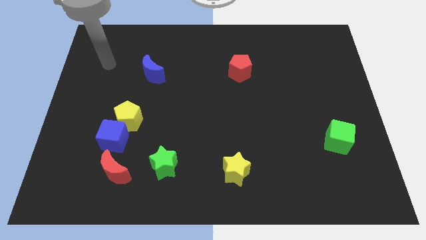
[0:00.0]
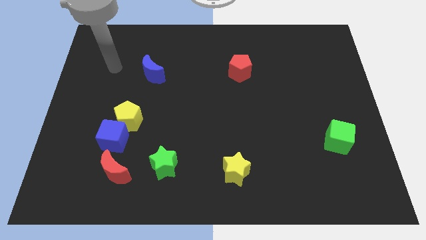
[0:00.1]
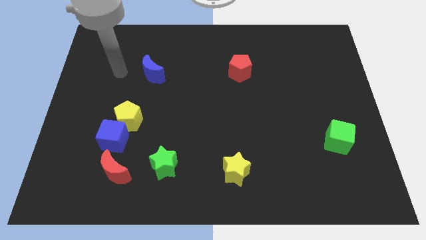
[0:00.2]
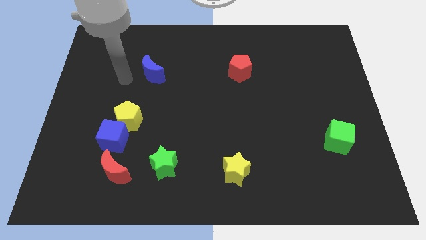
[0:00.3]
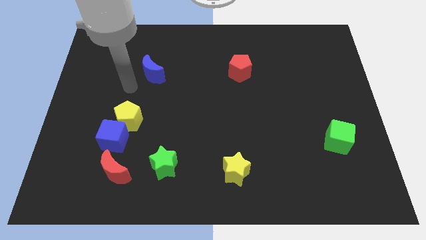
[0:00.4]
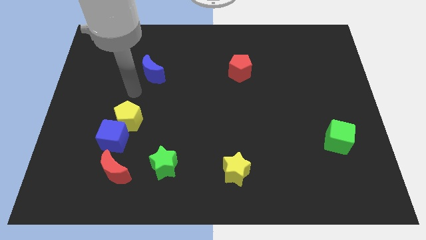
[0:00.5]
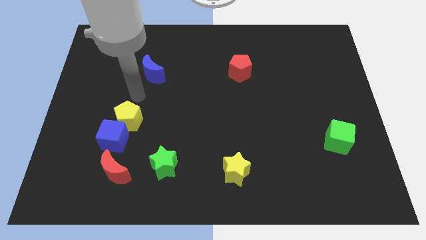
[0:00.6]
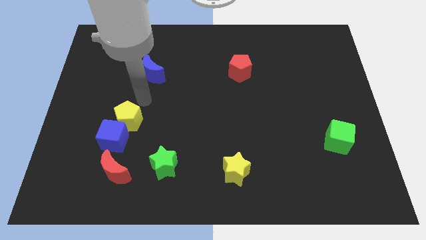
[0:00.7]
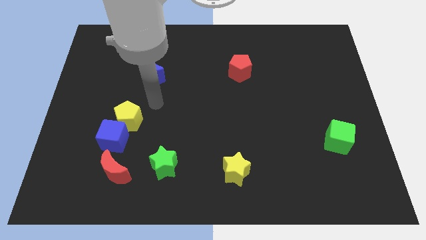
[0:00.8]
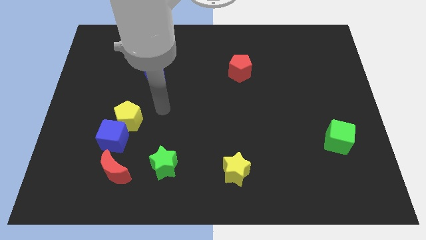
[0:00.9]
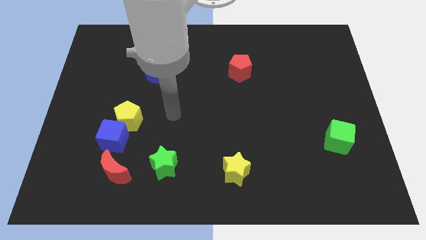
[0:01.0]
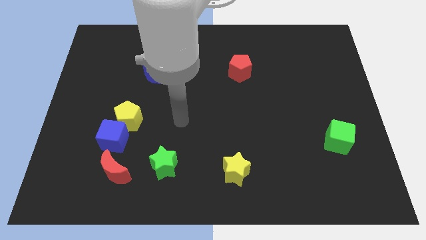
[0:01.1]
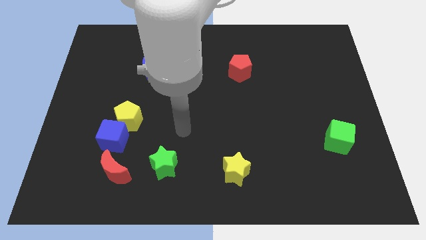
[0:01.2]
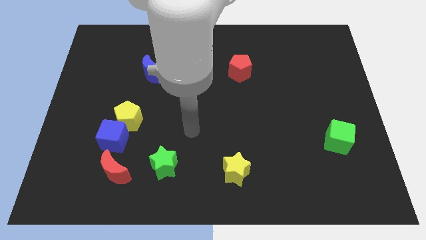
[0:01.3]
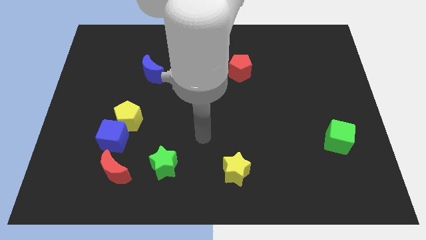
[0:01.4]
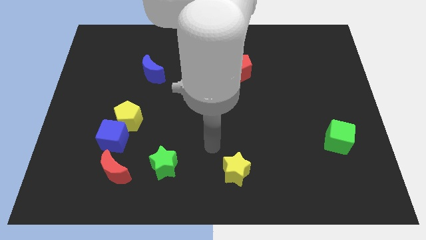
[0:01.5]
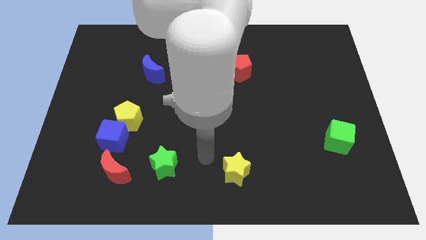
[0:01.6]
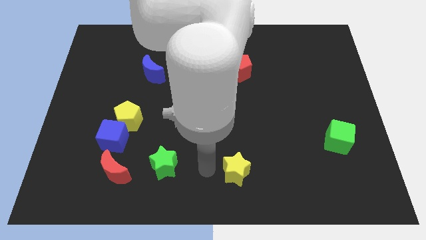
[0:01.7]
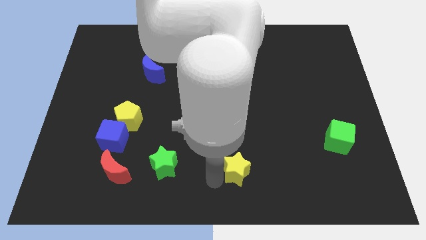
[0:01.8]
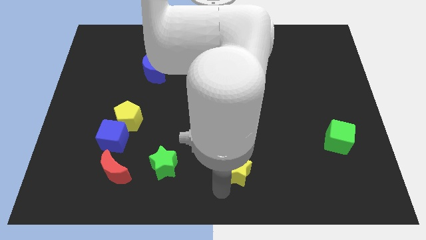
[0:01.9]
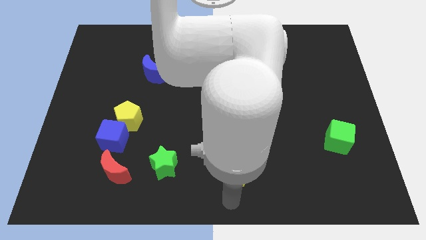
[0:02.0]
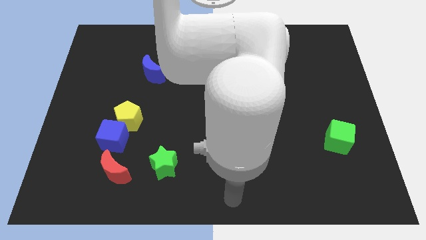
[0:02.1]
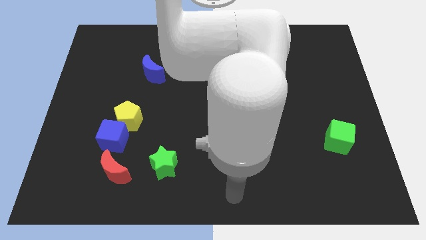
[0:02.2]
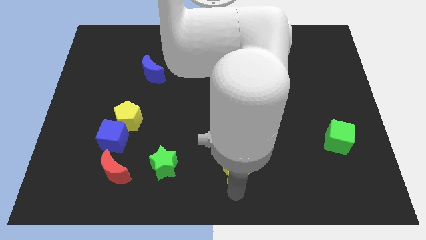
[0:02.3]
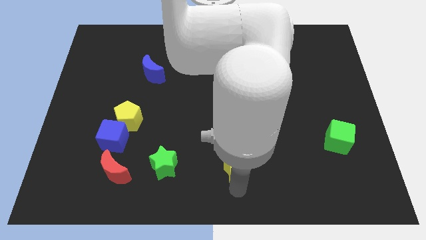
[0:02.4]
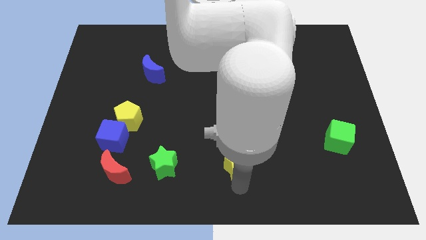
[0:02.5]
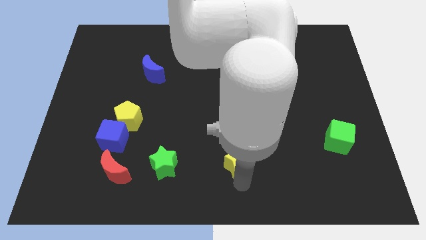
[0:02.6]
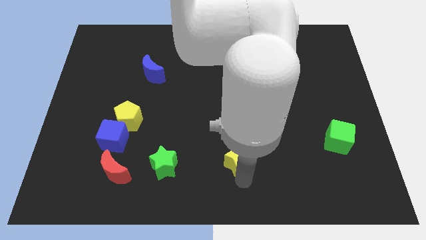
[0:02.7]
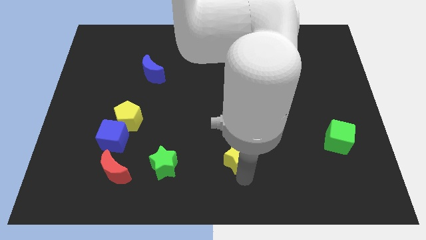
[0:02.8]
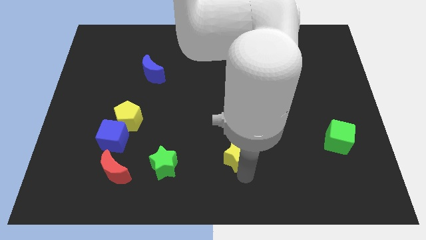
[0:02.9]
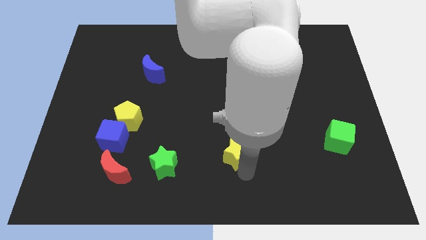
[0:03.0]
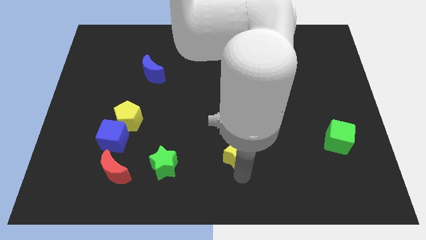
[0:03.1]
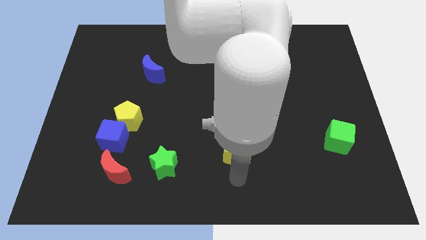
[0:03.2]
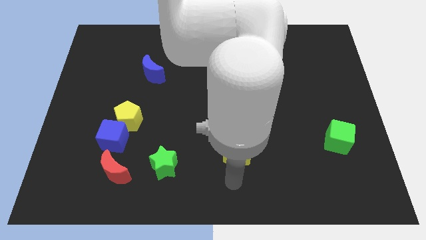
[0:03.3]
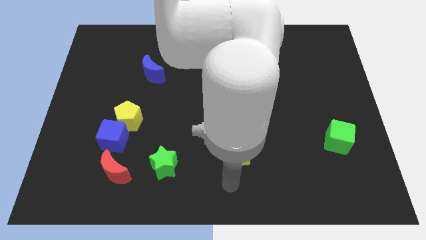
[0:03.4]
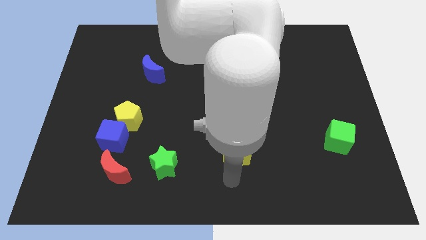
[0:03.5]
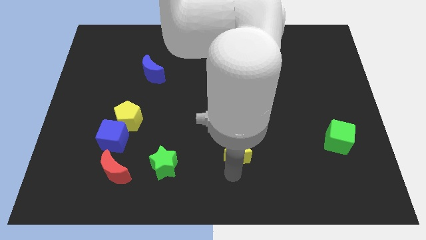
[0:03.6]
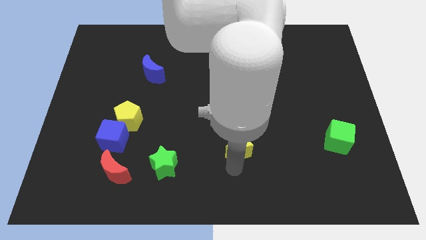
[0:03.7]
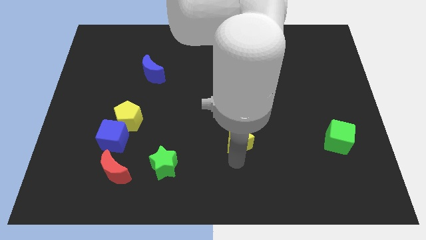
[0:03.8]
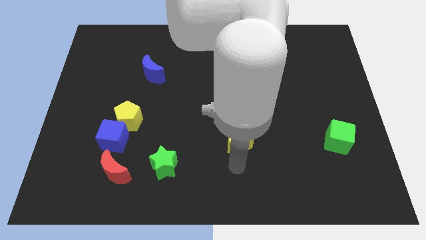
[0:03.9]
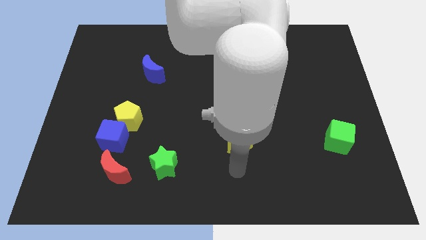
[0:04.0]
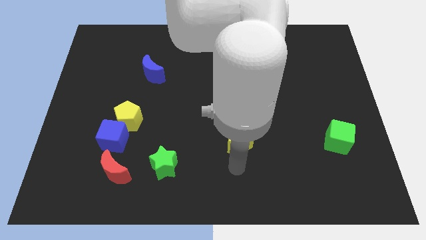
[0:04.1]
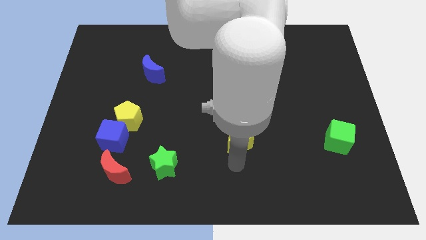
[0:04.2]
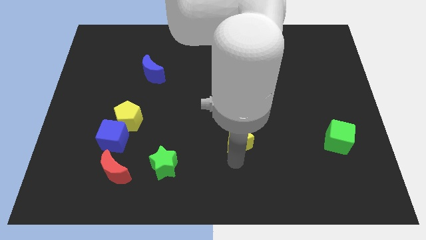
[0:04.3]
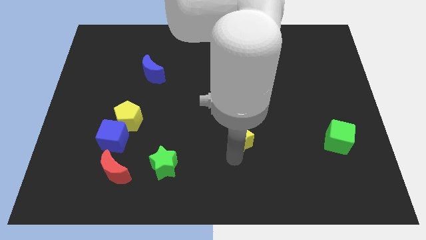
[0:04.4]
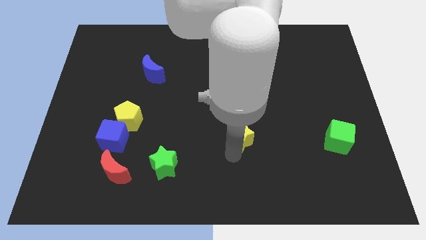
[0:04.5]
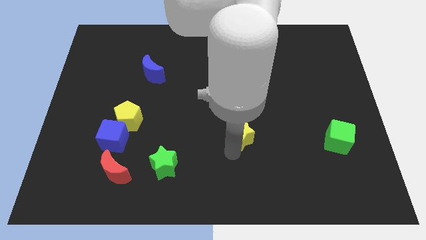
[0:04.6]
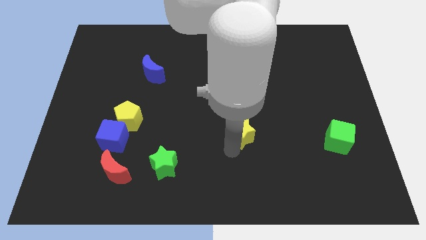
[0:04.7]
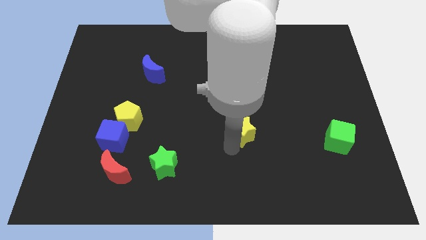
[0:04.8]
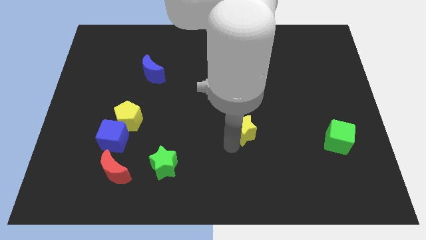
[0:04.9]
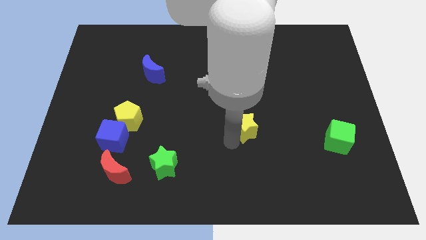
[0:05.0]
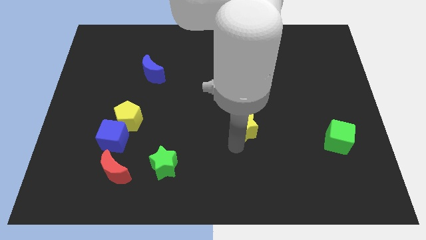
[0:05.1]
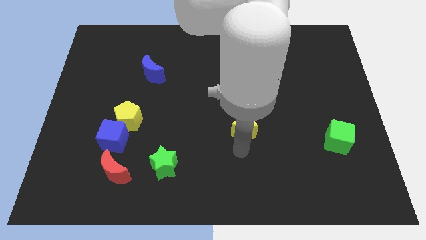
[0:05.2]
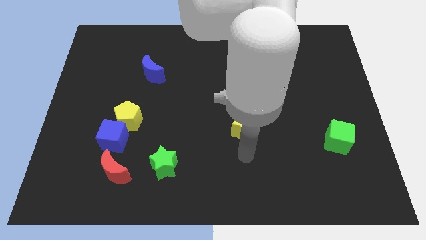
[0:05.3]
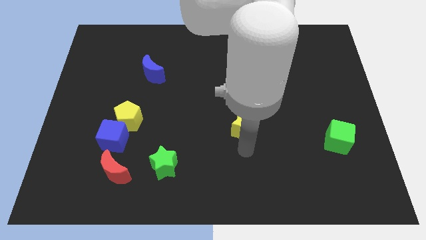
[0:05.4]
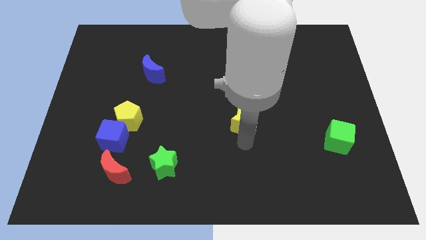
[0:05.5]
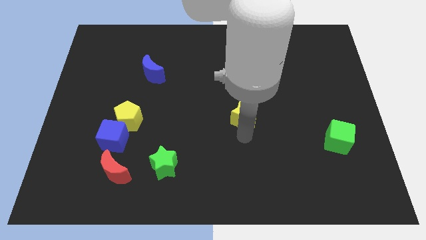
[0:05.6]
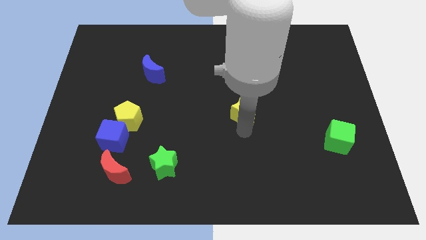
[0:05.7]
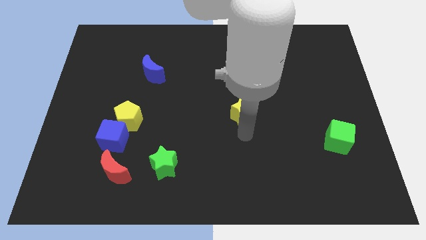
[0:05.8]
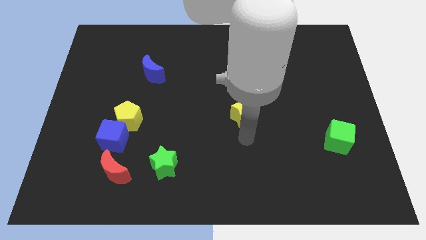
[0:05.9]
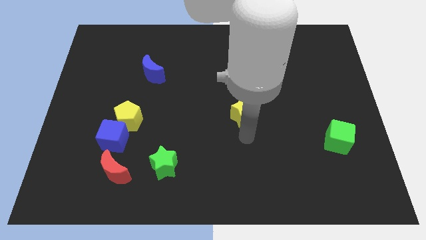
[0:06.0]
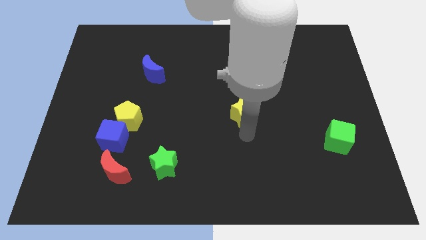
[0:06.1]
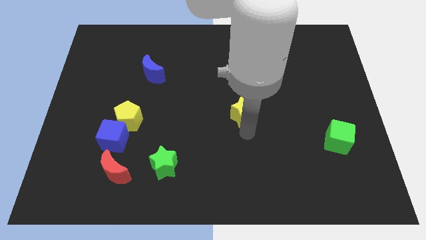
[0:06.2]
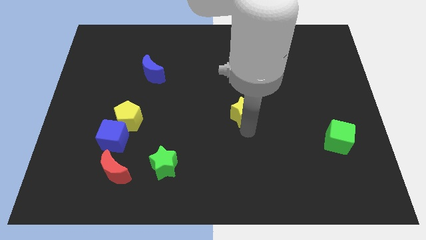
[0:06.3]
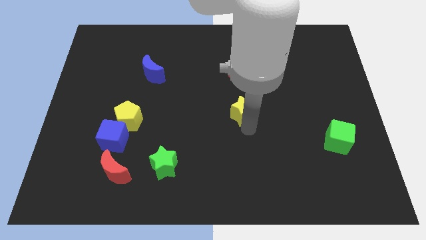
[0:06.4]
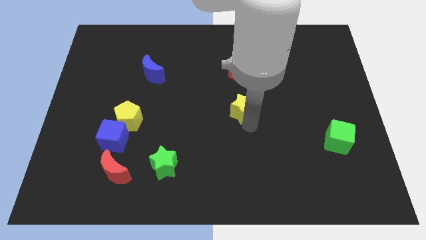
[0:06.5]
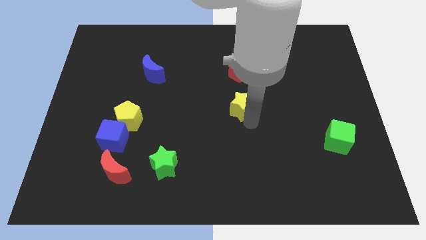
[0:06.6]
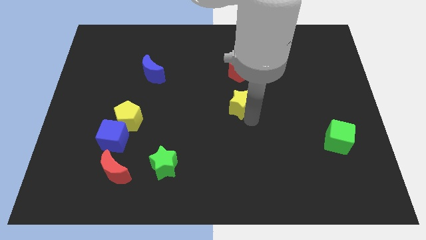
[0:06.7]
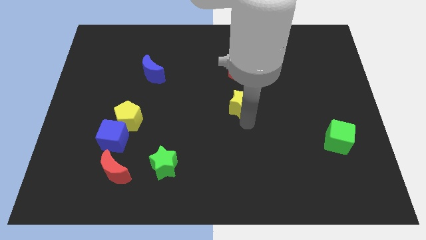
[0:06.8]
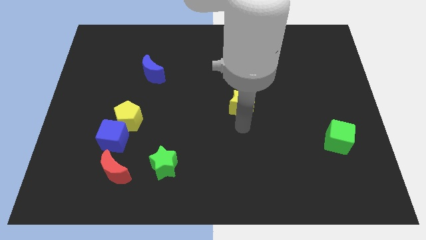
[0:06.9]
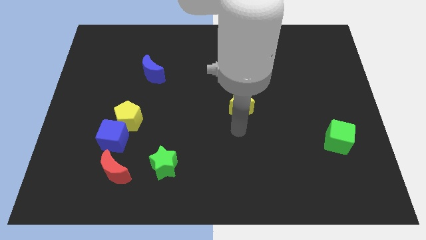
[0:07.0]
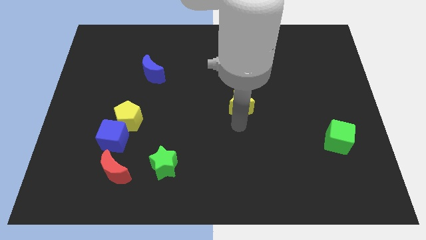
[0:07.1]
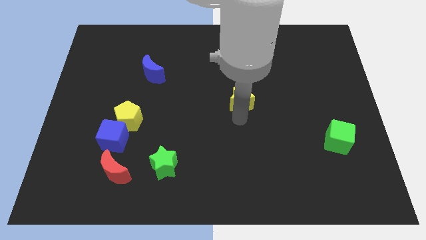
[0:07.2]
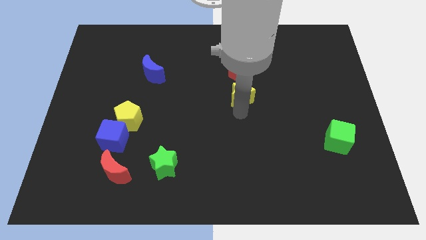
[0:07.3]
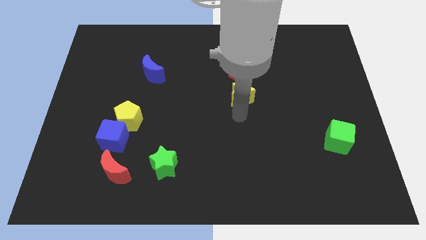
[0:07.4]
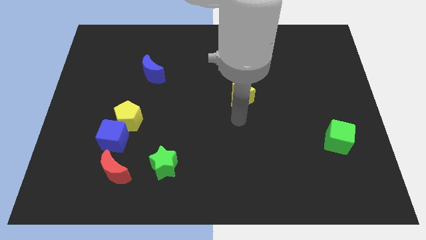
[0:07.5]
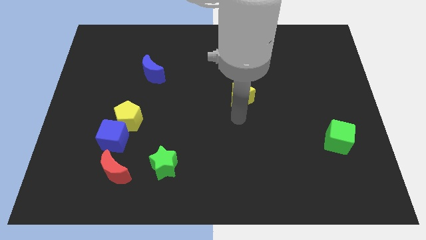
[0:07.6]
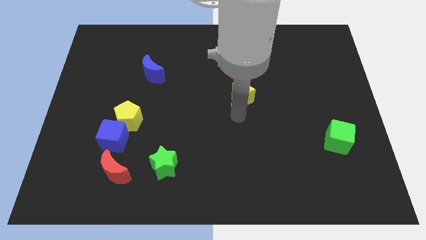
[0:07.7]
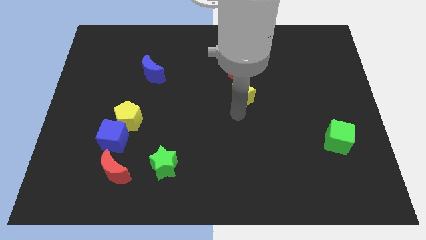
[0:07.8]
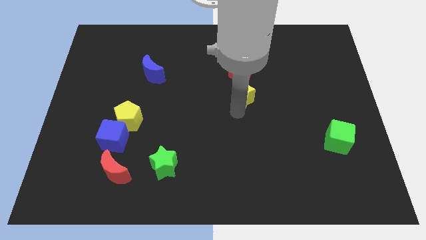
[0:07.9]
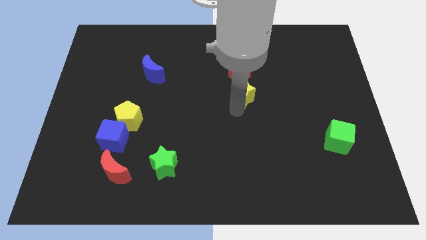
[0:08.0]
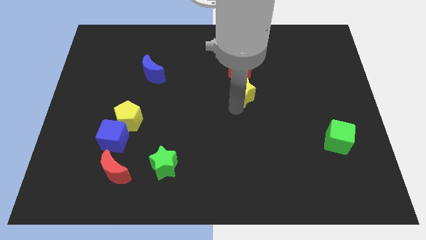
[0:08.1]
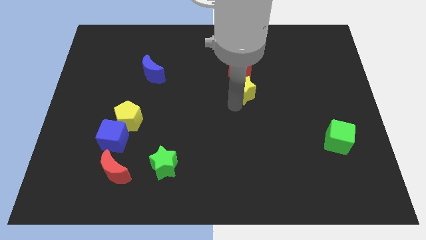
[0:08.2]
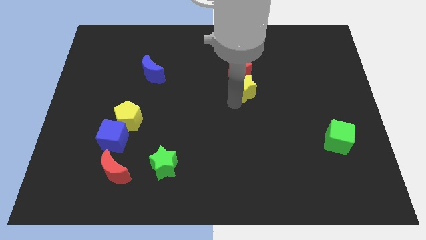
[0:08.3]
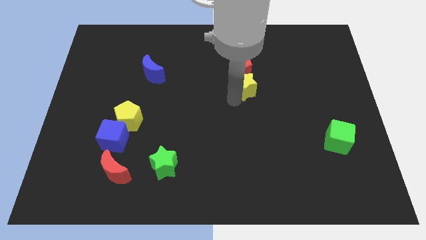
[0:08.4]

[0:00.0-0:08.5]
put the yellow star next to the red pentagon
